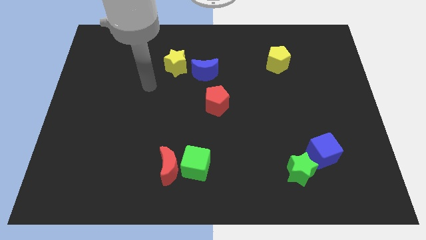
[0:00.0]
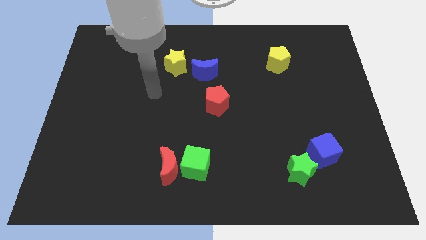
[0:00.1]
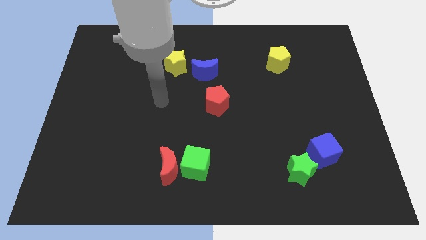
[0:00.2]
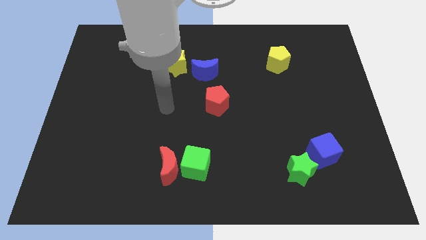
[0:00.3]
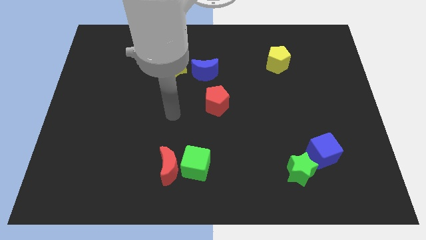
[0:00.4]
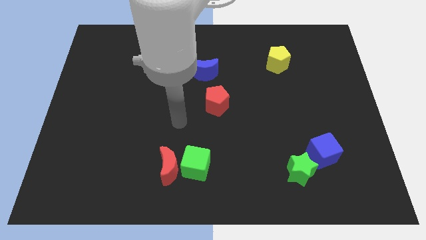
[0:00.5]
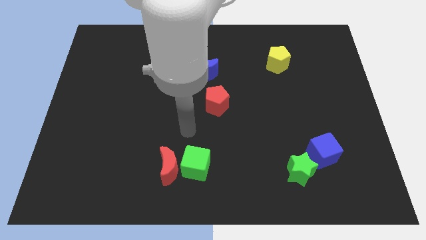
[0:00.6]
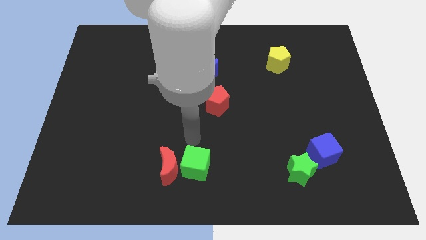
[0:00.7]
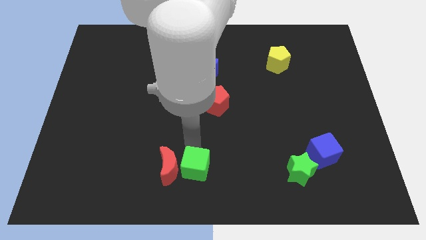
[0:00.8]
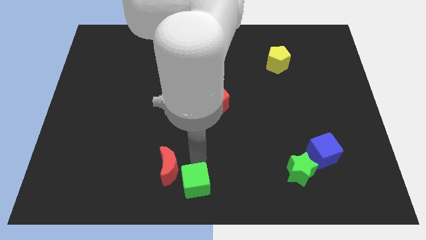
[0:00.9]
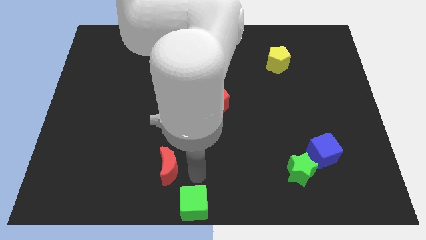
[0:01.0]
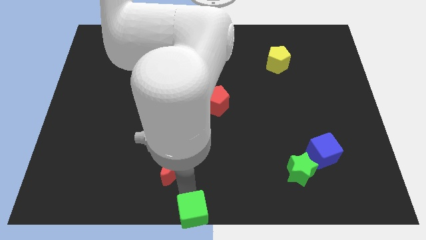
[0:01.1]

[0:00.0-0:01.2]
move the red moon away from the green cube

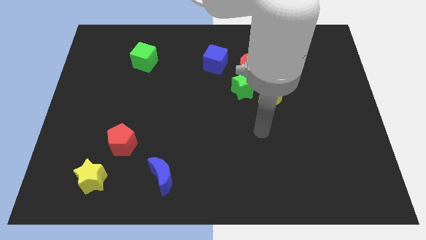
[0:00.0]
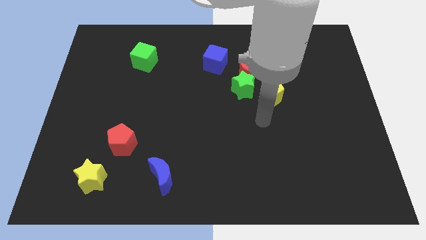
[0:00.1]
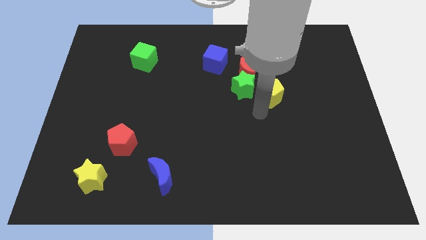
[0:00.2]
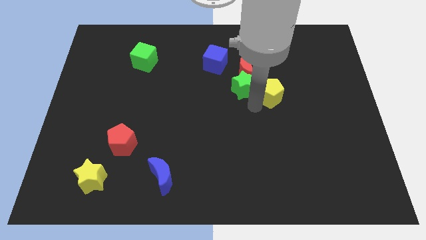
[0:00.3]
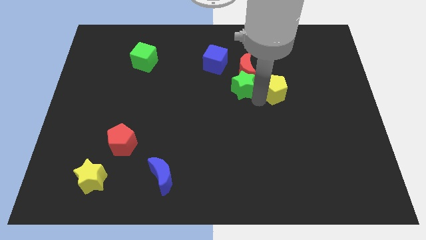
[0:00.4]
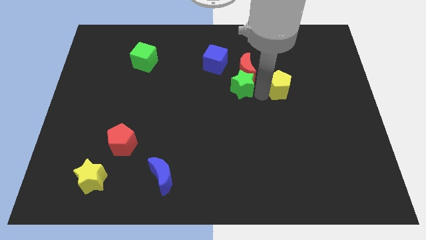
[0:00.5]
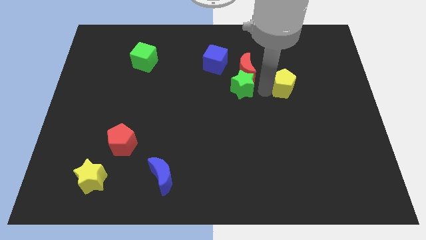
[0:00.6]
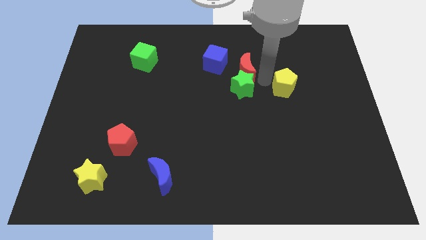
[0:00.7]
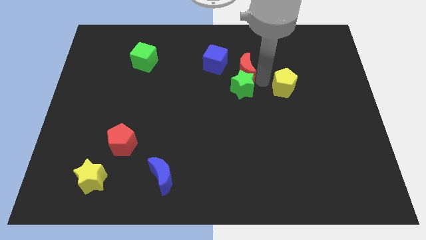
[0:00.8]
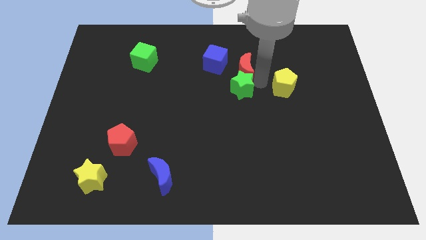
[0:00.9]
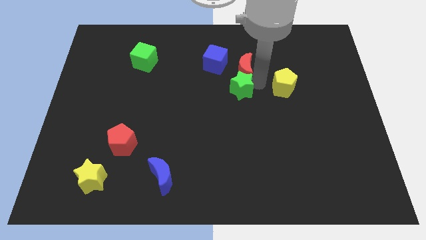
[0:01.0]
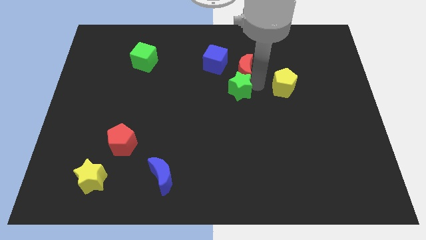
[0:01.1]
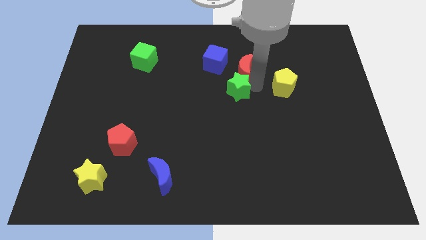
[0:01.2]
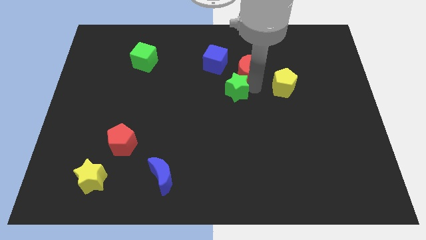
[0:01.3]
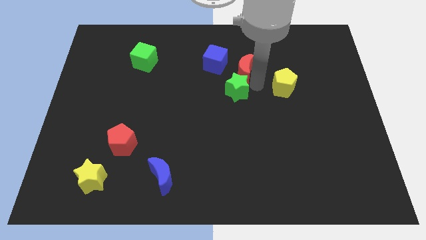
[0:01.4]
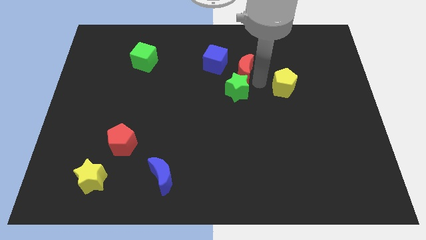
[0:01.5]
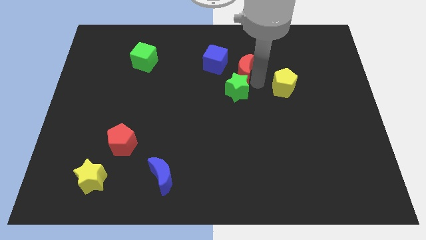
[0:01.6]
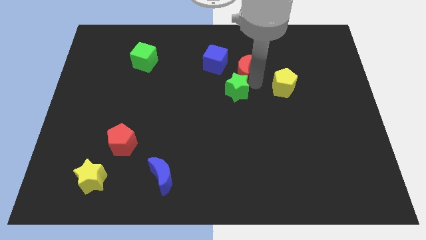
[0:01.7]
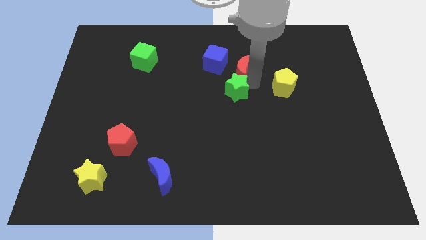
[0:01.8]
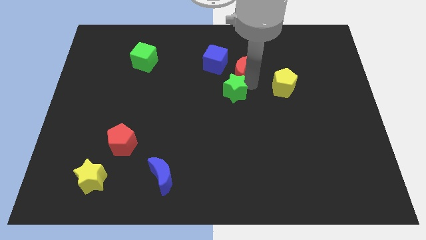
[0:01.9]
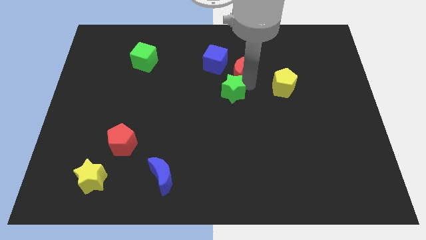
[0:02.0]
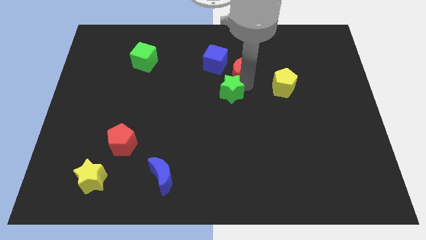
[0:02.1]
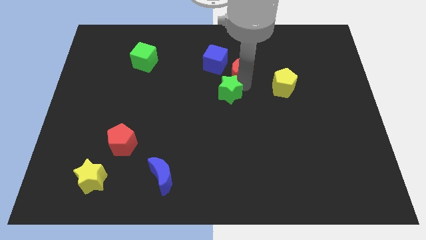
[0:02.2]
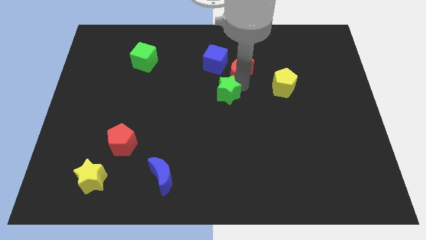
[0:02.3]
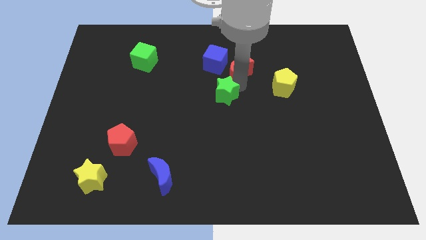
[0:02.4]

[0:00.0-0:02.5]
separate the green star from the red moon and yellow pentagon

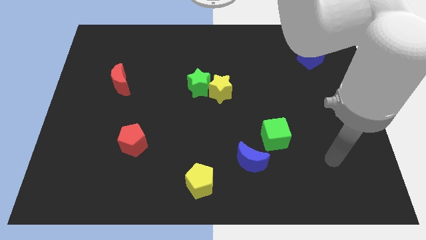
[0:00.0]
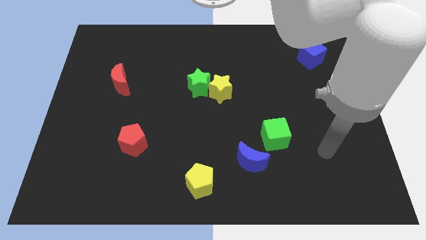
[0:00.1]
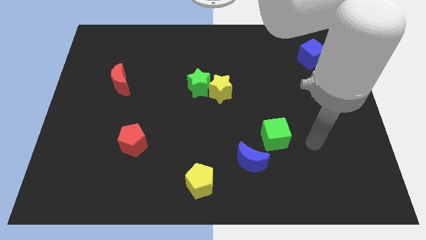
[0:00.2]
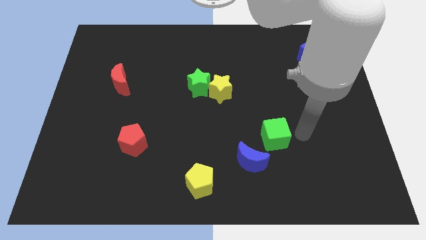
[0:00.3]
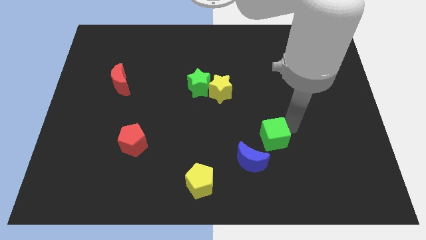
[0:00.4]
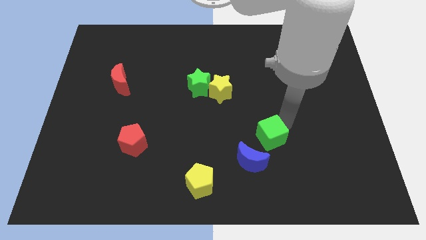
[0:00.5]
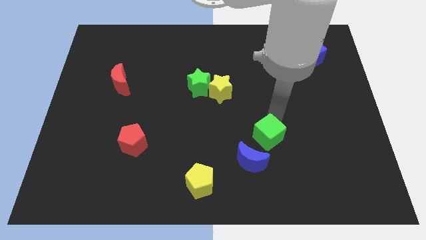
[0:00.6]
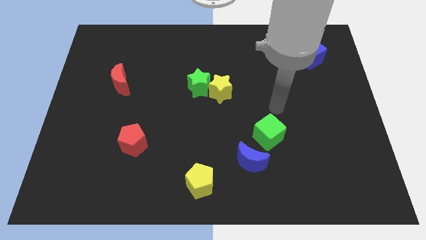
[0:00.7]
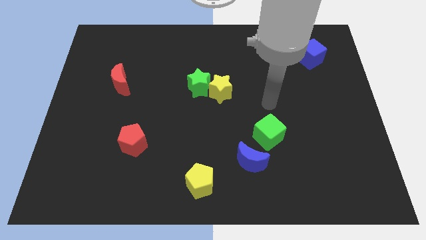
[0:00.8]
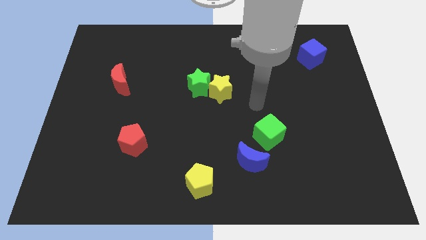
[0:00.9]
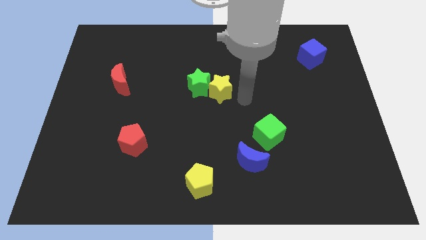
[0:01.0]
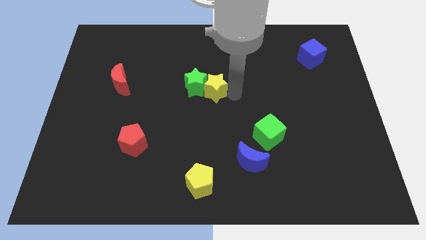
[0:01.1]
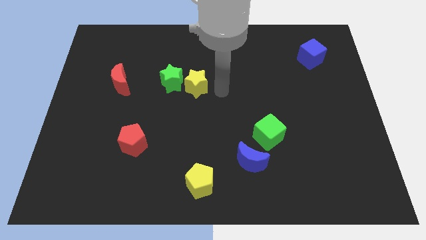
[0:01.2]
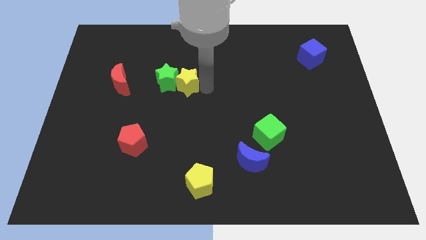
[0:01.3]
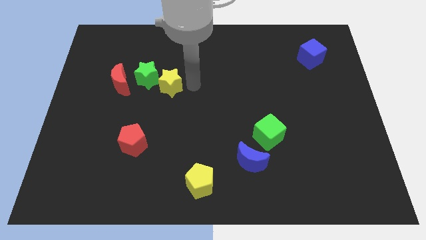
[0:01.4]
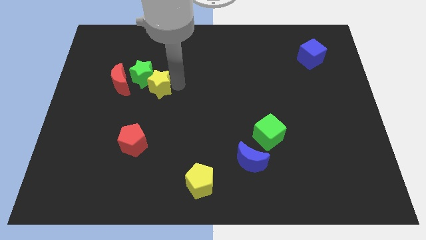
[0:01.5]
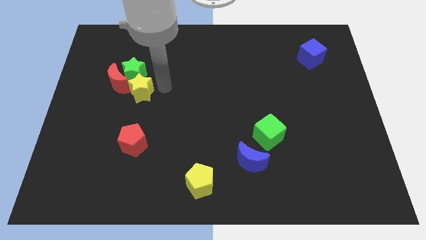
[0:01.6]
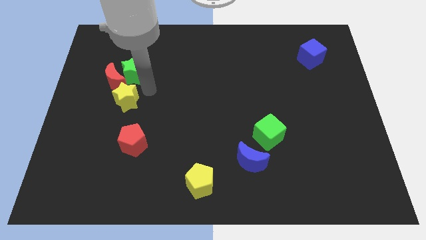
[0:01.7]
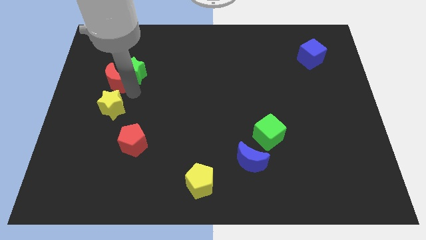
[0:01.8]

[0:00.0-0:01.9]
move the green star away from the yellow star

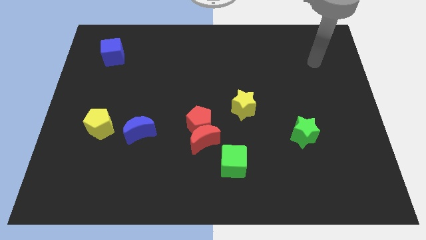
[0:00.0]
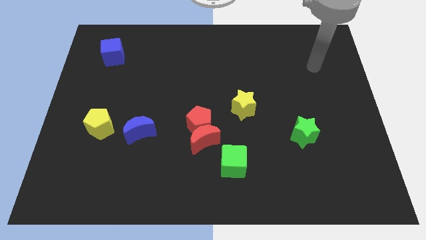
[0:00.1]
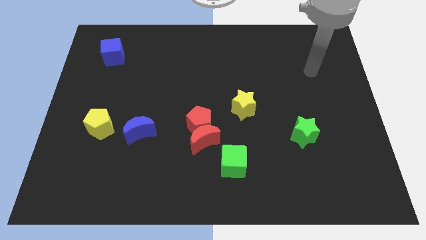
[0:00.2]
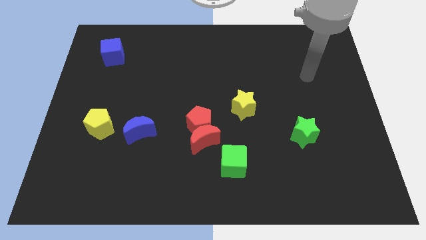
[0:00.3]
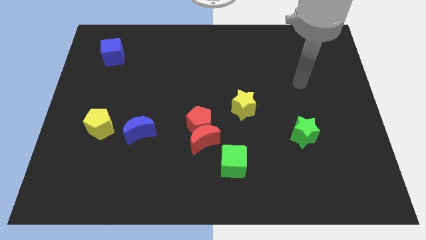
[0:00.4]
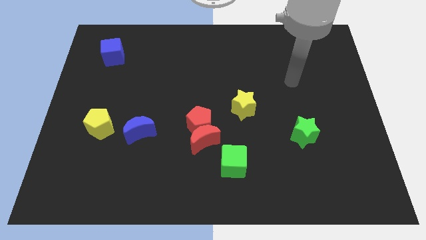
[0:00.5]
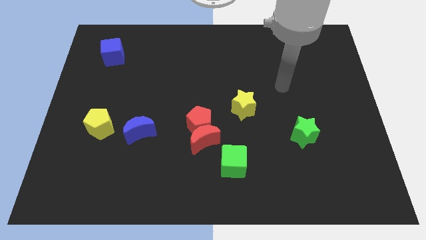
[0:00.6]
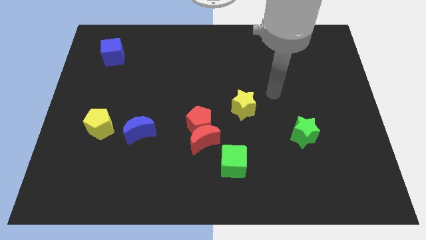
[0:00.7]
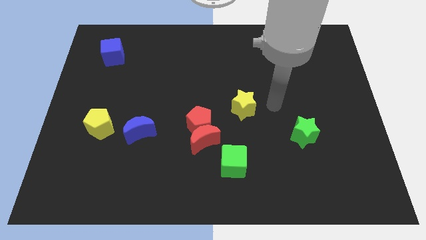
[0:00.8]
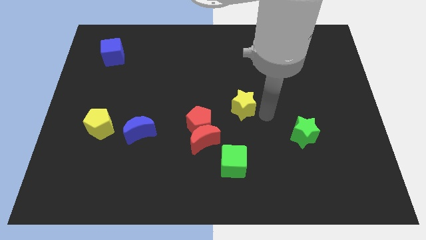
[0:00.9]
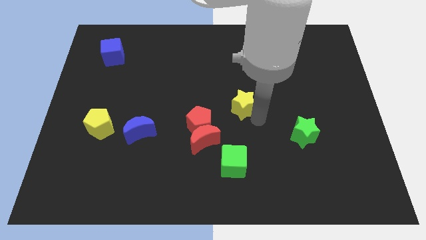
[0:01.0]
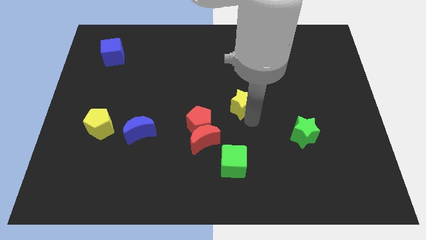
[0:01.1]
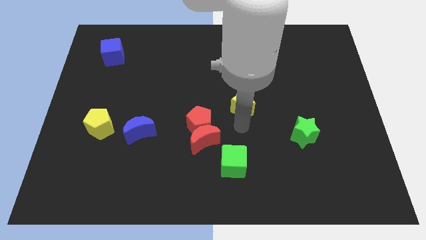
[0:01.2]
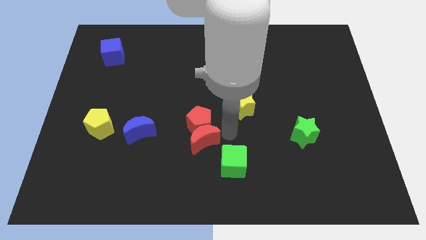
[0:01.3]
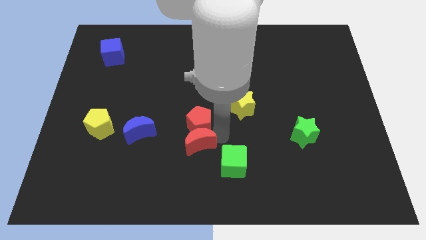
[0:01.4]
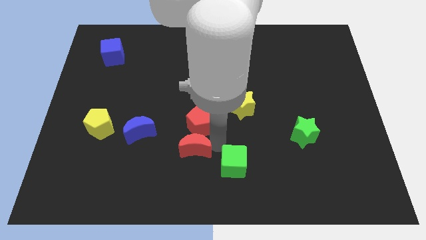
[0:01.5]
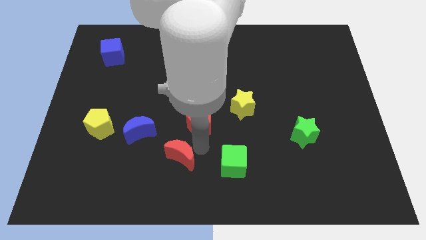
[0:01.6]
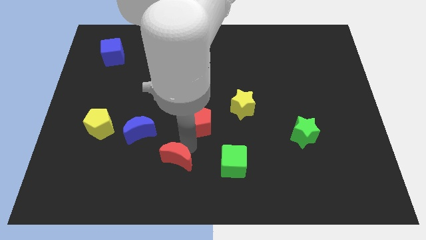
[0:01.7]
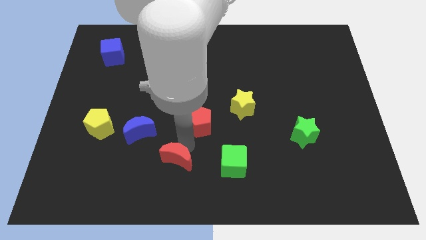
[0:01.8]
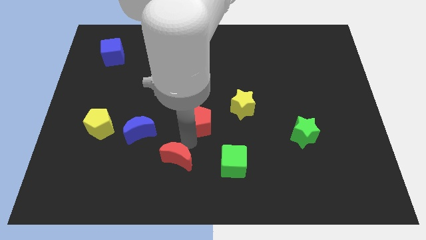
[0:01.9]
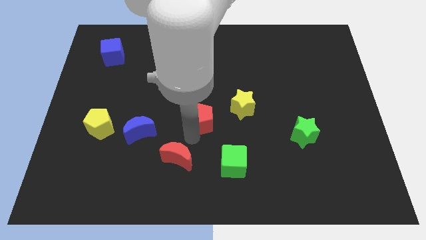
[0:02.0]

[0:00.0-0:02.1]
pull the red pentagon apart from the red moon

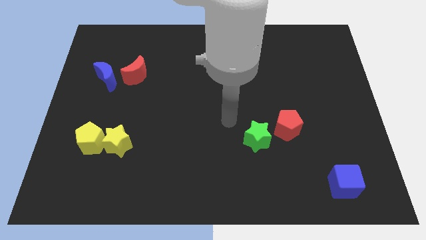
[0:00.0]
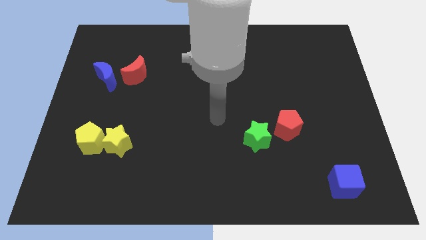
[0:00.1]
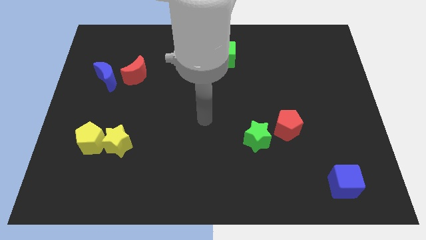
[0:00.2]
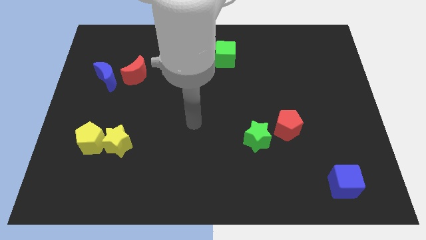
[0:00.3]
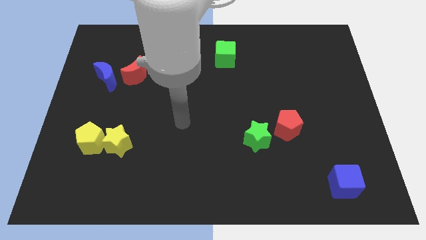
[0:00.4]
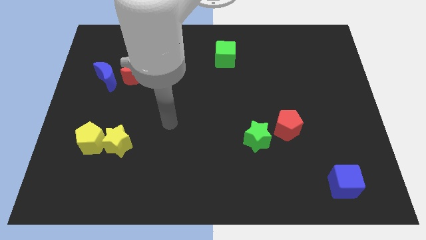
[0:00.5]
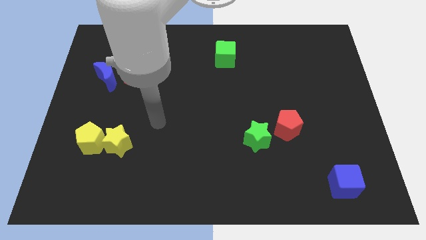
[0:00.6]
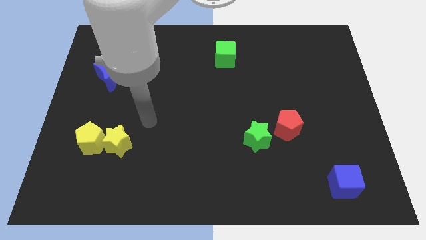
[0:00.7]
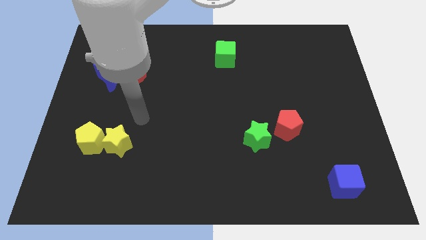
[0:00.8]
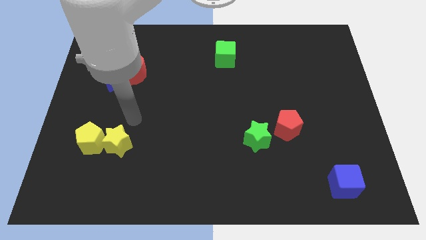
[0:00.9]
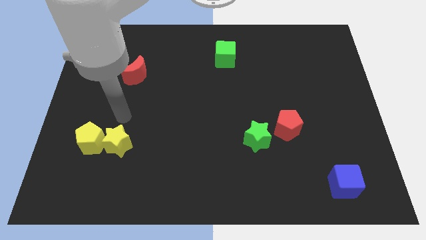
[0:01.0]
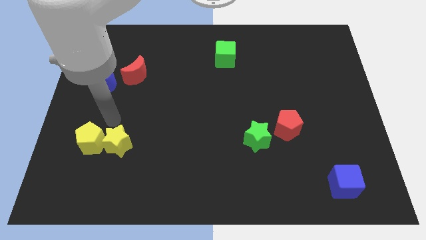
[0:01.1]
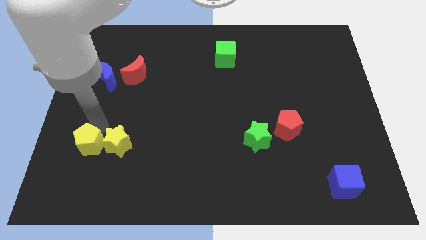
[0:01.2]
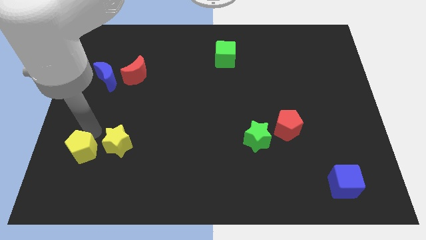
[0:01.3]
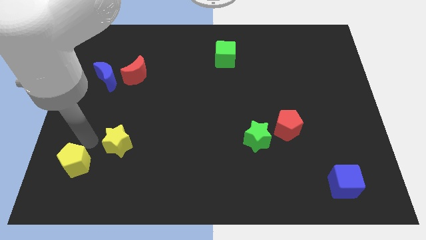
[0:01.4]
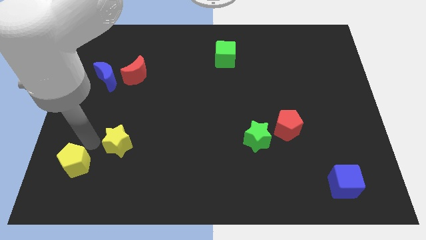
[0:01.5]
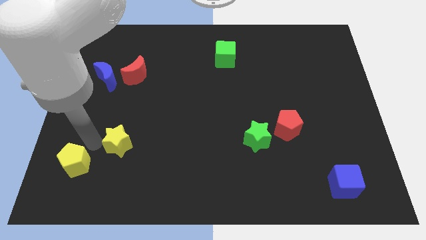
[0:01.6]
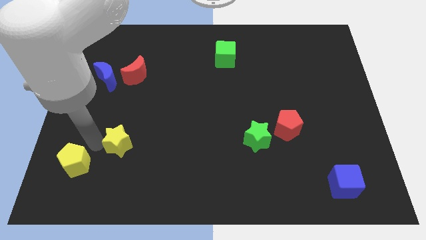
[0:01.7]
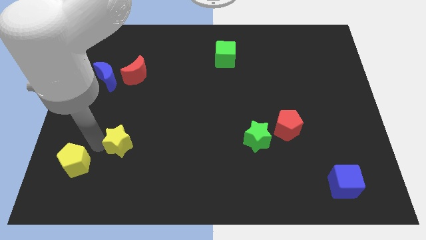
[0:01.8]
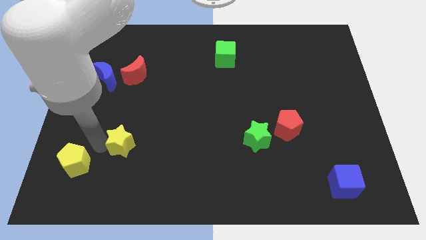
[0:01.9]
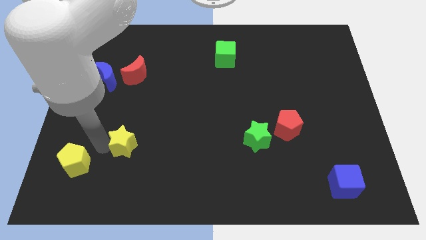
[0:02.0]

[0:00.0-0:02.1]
separate the yellow star from the yellow pentagon
